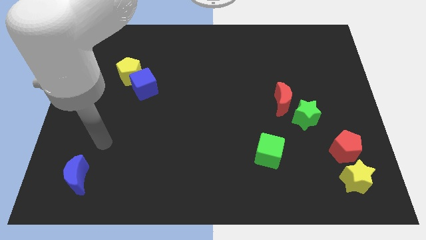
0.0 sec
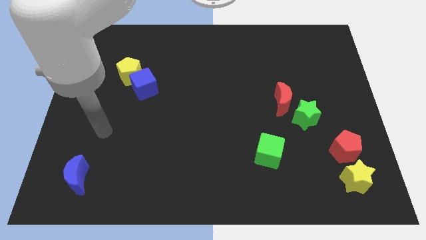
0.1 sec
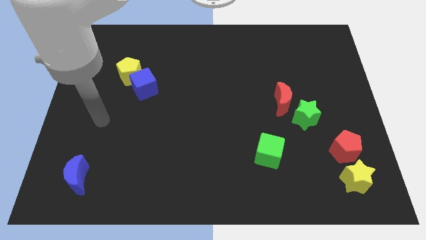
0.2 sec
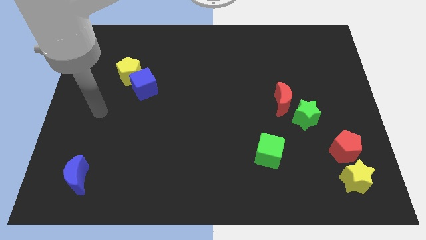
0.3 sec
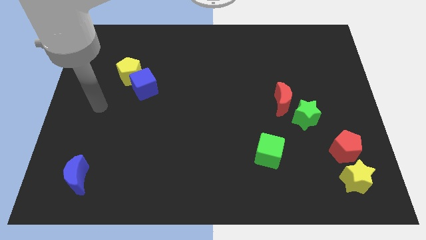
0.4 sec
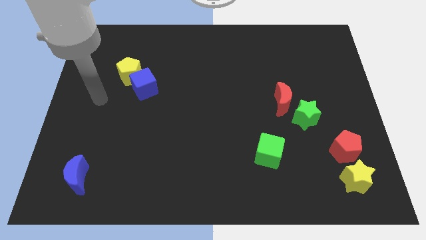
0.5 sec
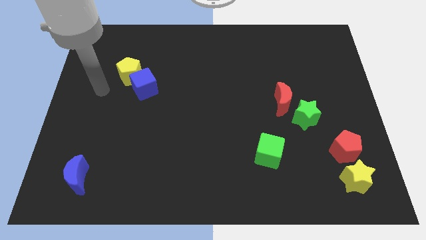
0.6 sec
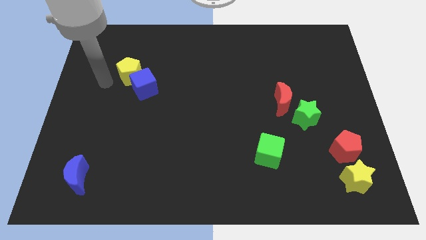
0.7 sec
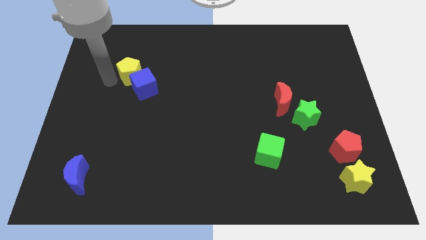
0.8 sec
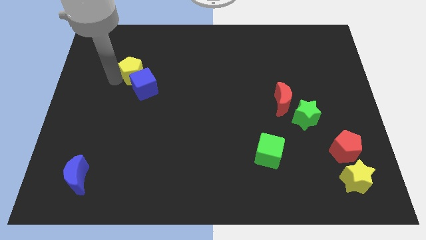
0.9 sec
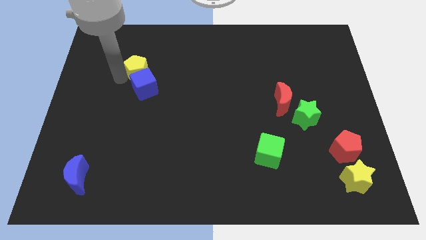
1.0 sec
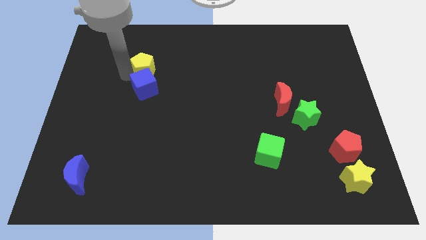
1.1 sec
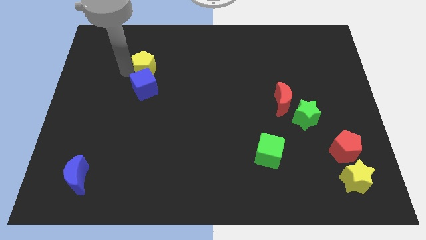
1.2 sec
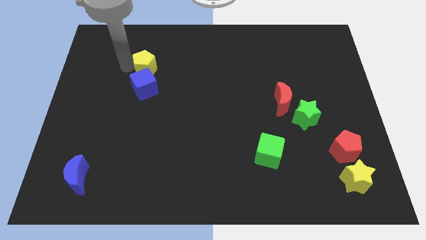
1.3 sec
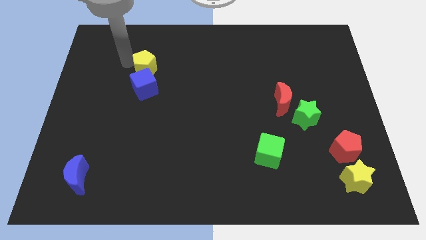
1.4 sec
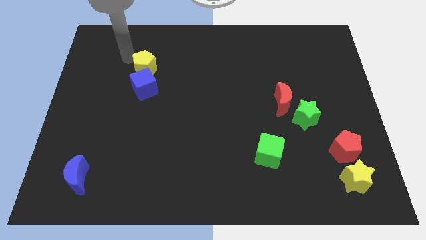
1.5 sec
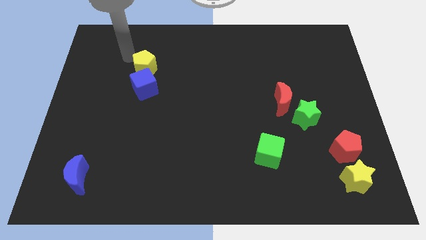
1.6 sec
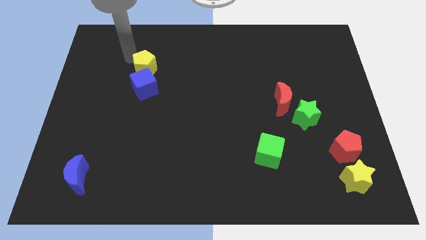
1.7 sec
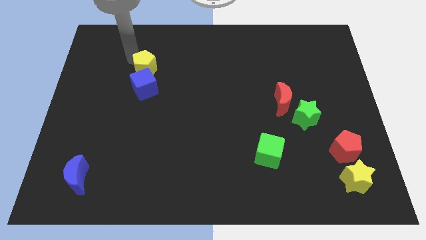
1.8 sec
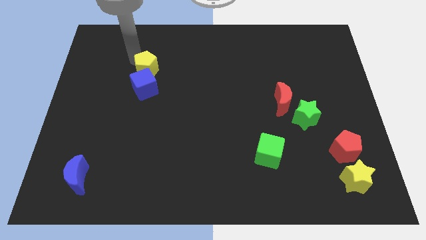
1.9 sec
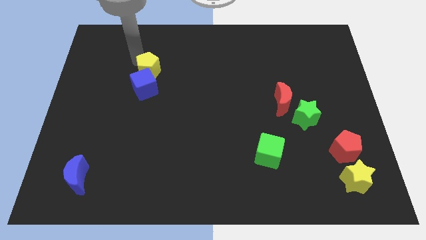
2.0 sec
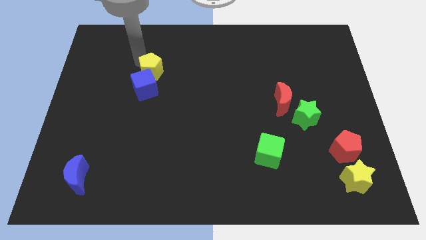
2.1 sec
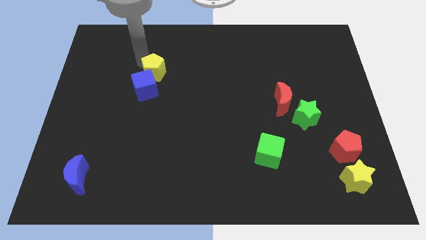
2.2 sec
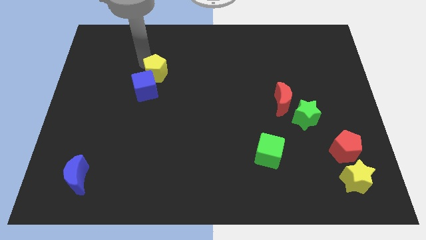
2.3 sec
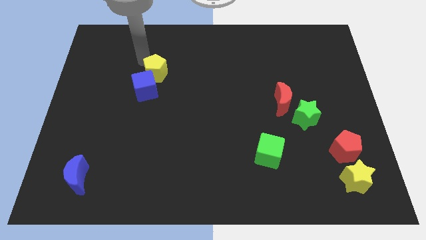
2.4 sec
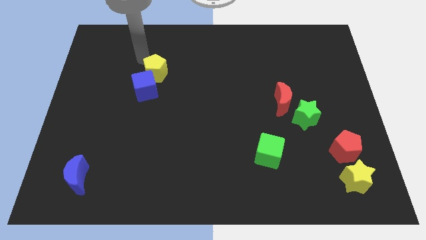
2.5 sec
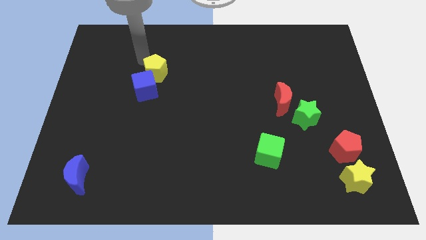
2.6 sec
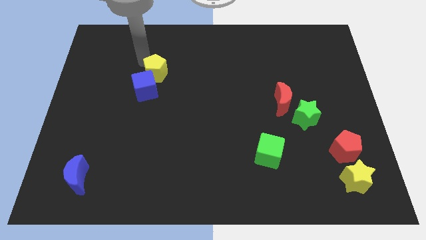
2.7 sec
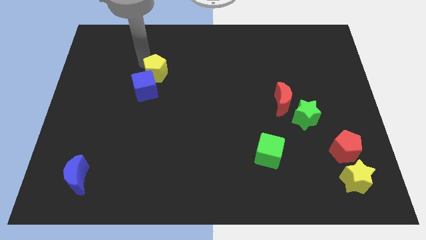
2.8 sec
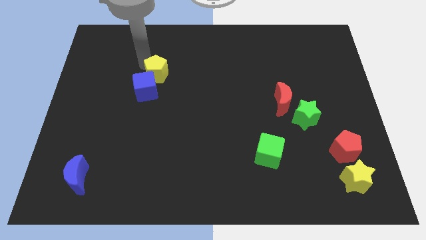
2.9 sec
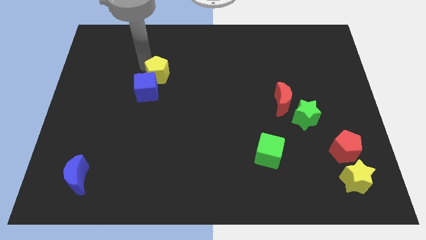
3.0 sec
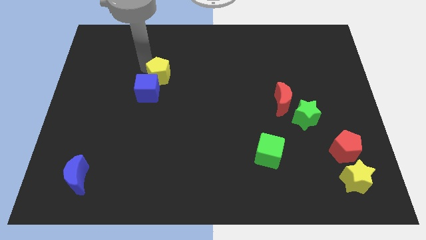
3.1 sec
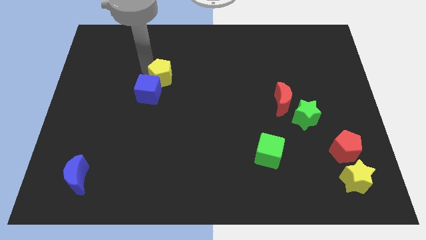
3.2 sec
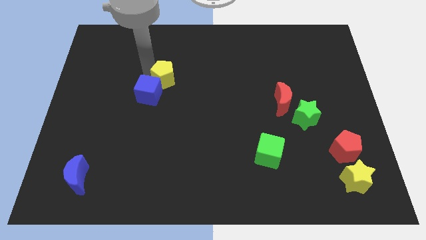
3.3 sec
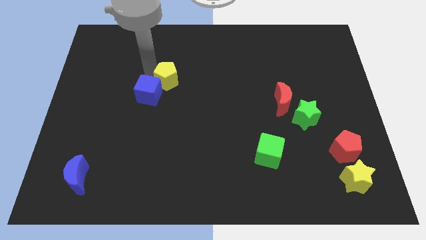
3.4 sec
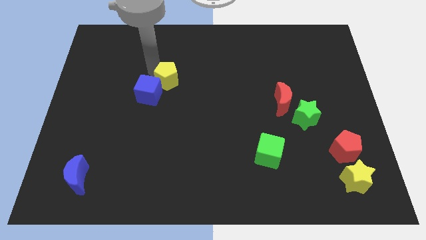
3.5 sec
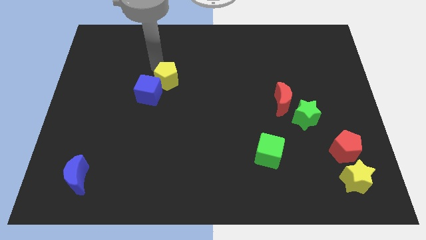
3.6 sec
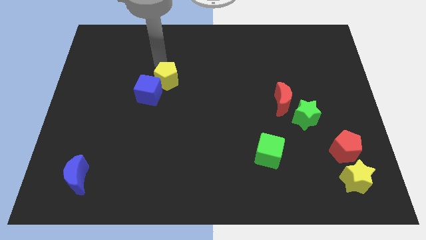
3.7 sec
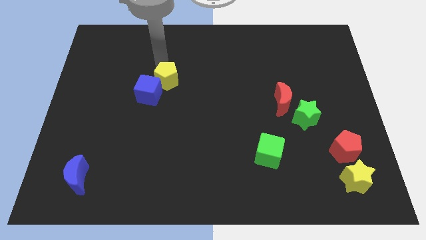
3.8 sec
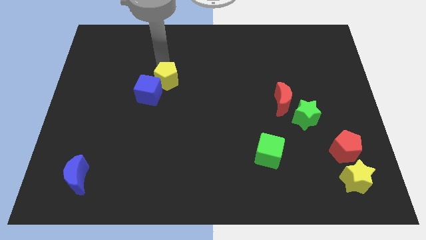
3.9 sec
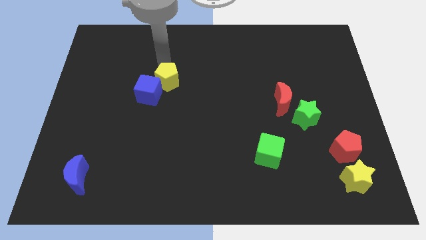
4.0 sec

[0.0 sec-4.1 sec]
slightly slide the yellow pentagon downwards and to the right

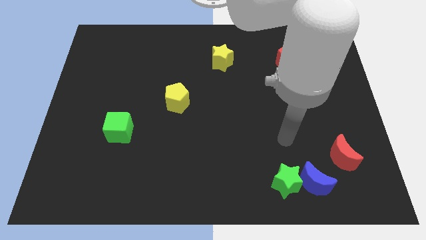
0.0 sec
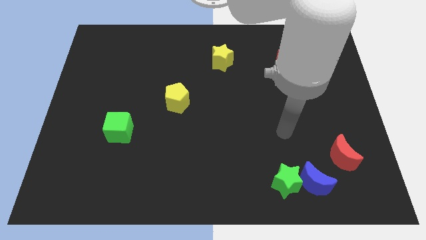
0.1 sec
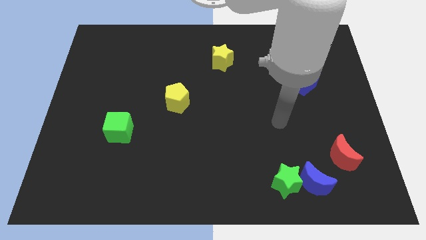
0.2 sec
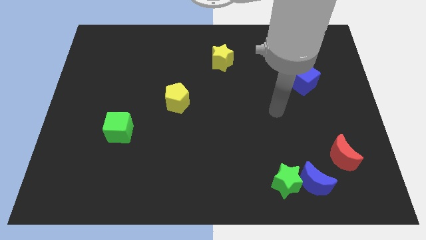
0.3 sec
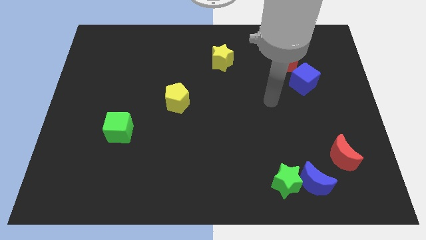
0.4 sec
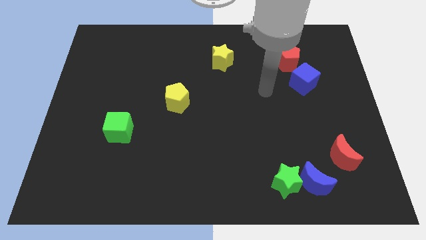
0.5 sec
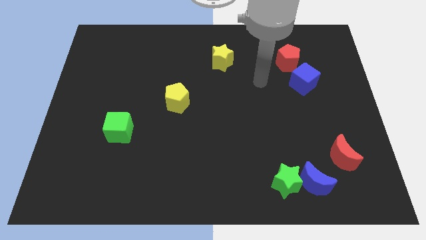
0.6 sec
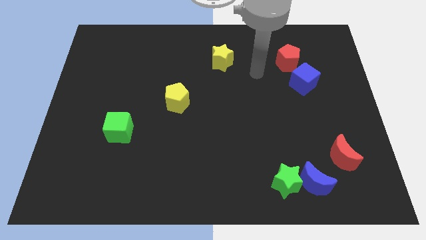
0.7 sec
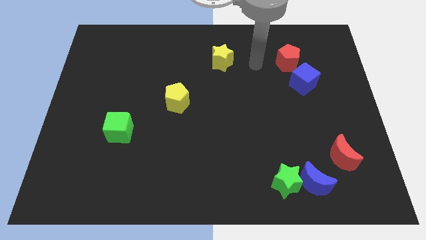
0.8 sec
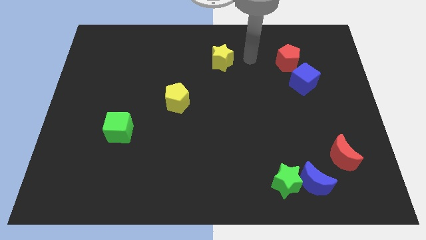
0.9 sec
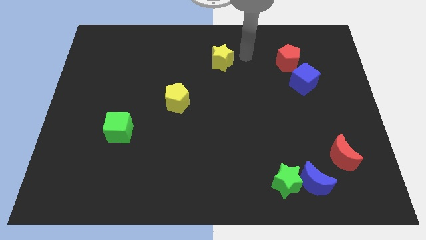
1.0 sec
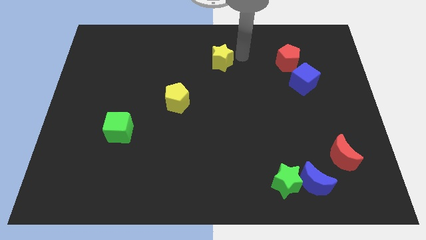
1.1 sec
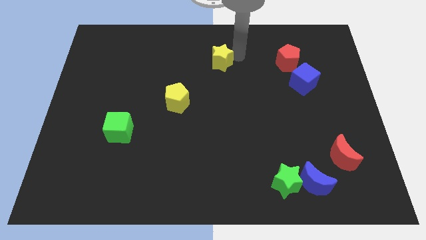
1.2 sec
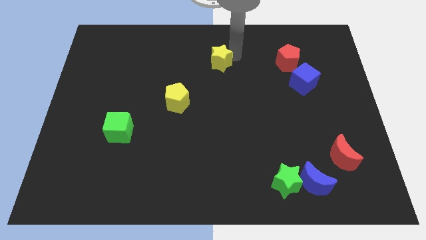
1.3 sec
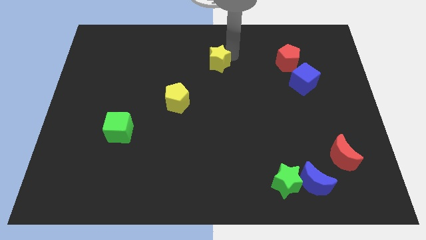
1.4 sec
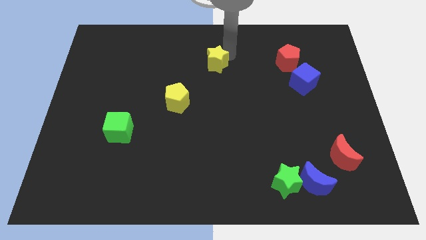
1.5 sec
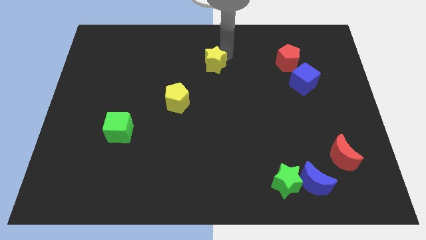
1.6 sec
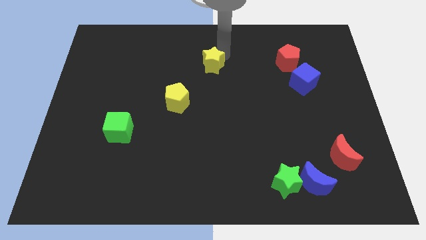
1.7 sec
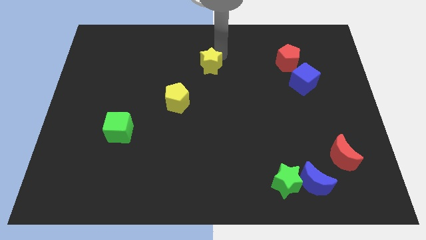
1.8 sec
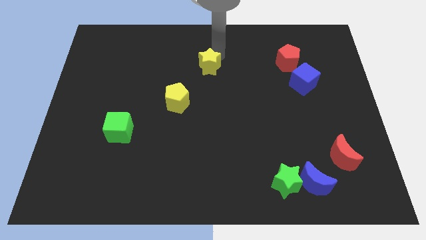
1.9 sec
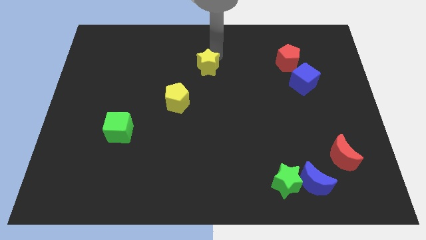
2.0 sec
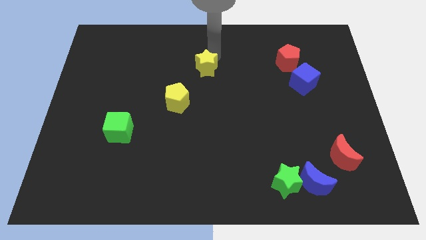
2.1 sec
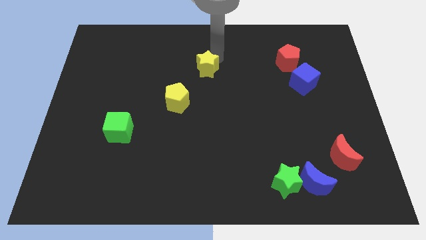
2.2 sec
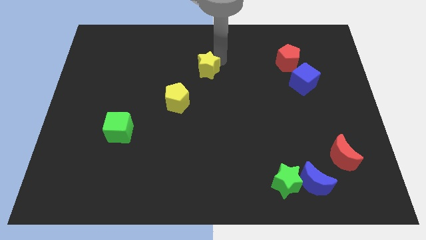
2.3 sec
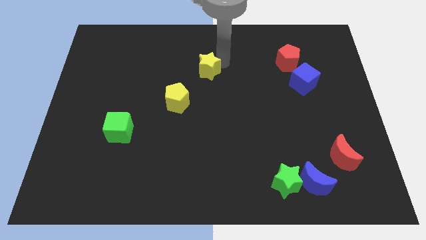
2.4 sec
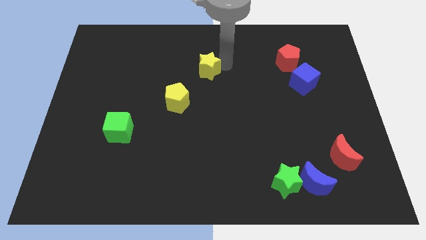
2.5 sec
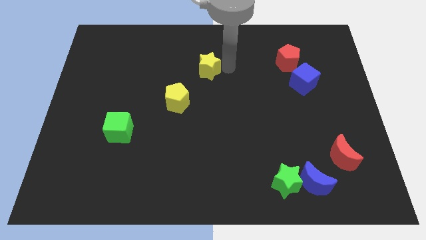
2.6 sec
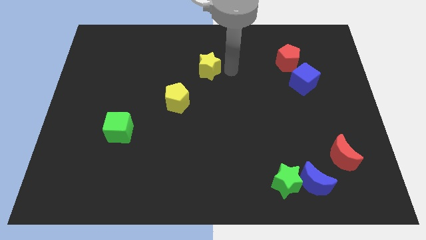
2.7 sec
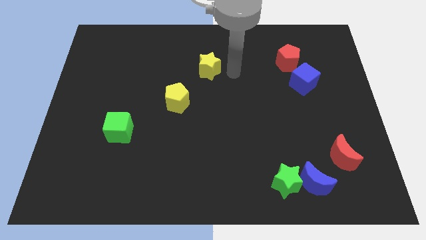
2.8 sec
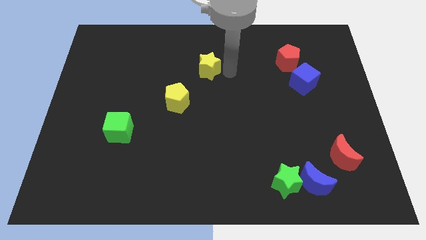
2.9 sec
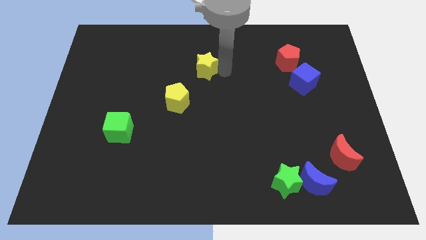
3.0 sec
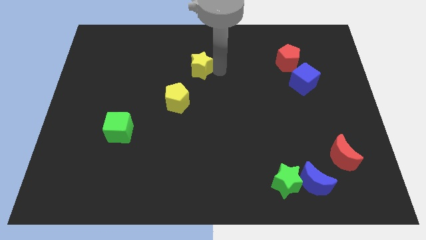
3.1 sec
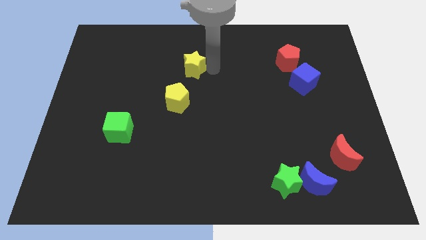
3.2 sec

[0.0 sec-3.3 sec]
slide the yellow star slightly left

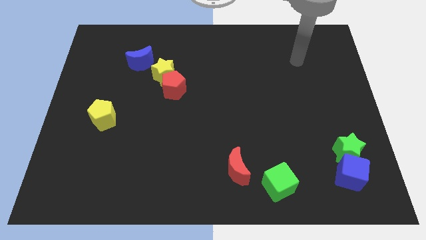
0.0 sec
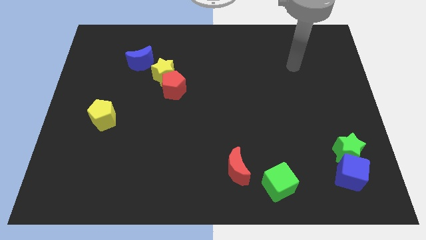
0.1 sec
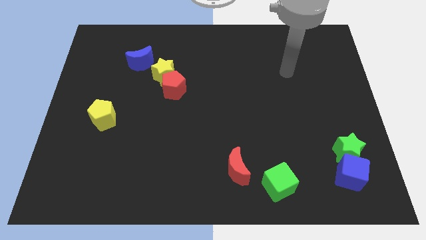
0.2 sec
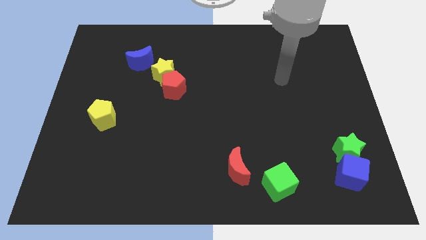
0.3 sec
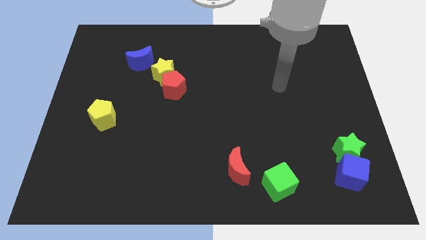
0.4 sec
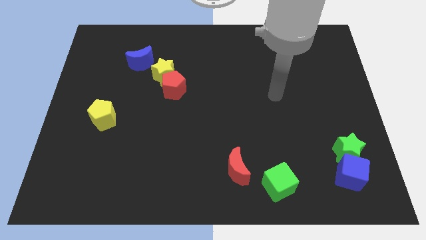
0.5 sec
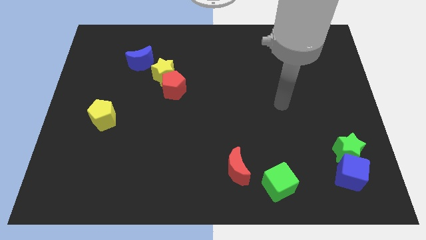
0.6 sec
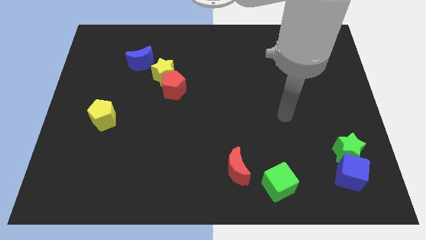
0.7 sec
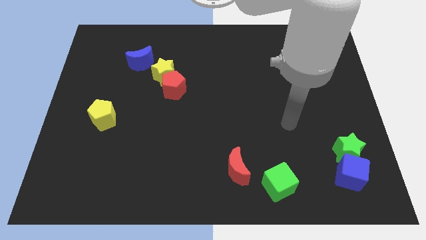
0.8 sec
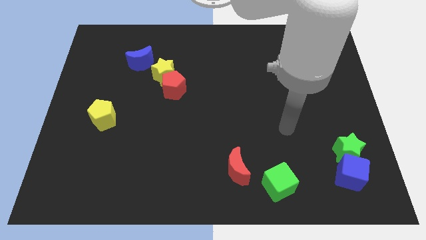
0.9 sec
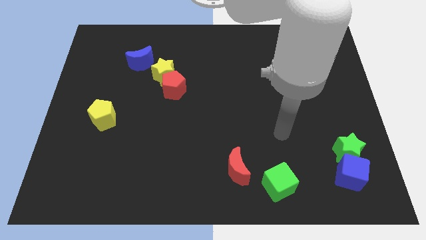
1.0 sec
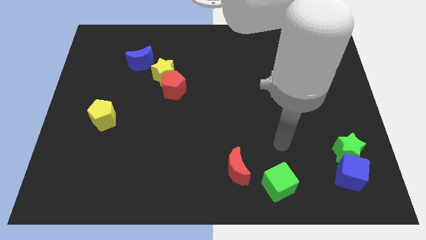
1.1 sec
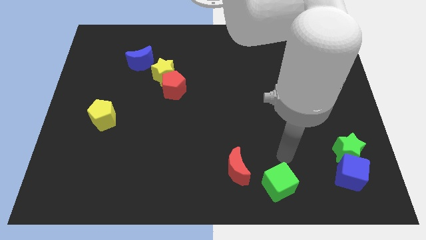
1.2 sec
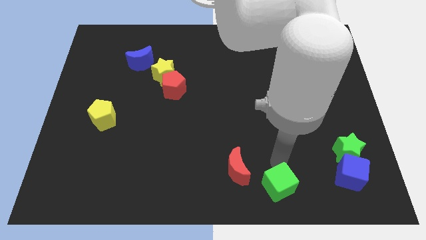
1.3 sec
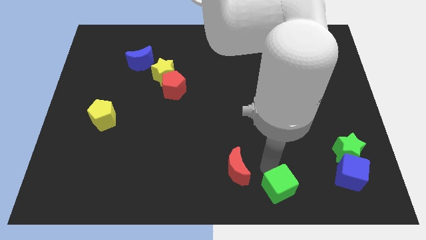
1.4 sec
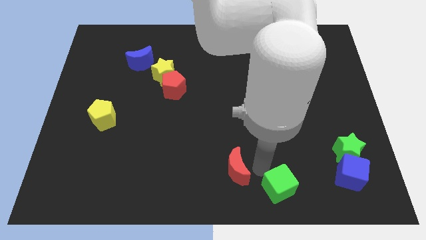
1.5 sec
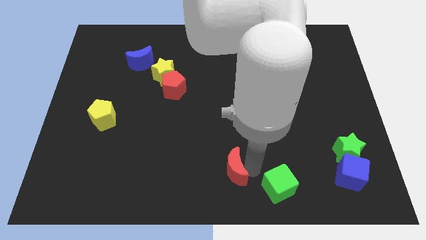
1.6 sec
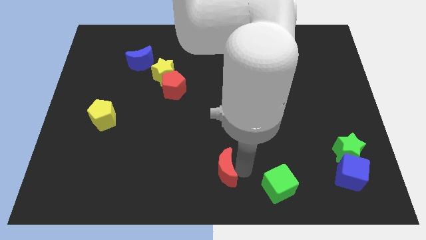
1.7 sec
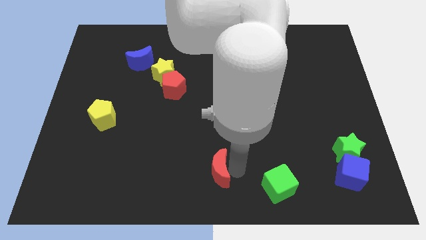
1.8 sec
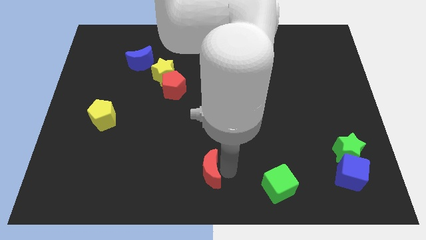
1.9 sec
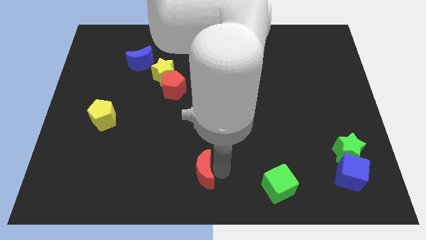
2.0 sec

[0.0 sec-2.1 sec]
slightly push the red moon to the left
